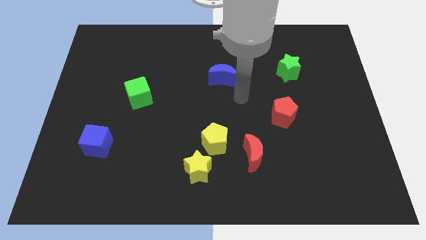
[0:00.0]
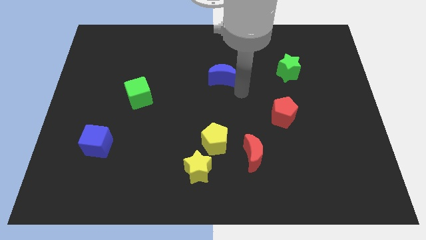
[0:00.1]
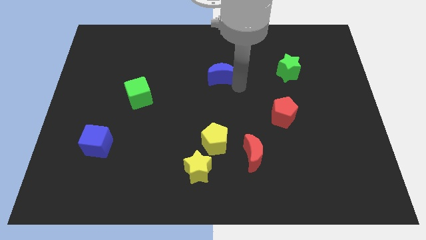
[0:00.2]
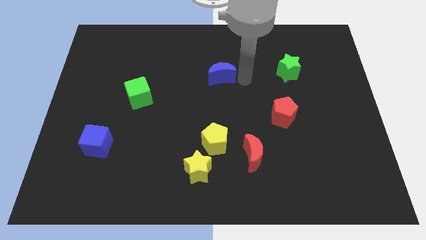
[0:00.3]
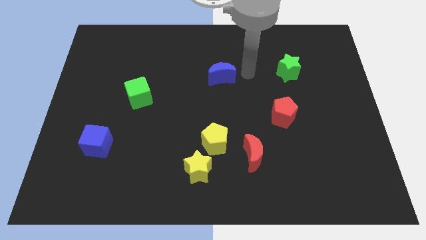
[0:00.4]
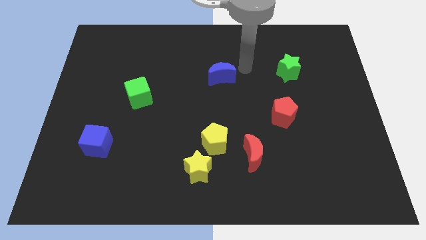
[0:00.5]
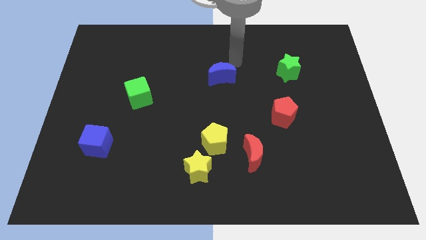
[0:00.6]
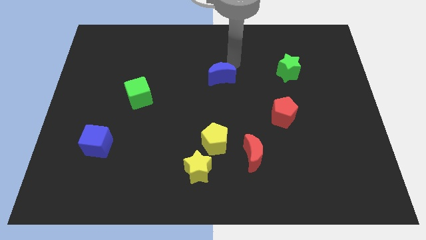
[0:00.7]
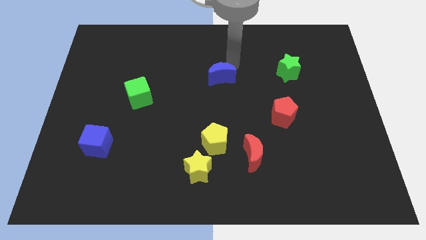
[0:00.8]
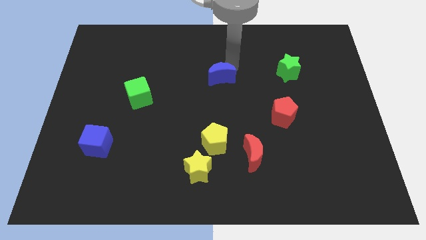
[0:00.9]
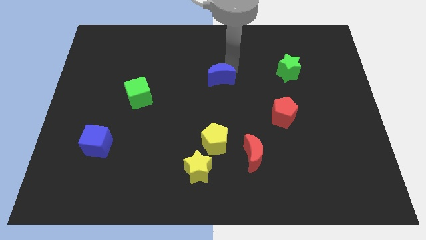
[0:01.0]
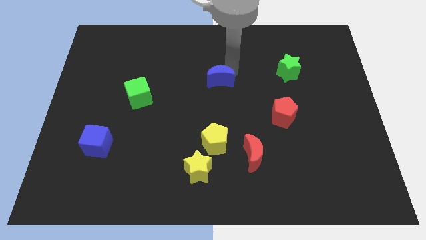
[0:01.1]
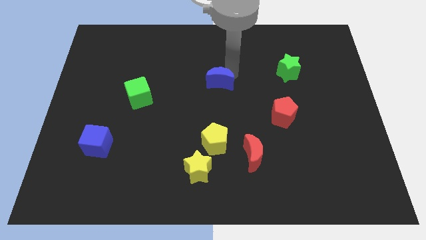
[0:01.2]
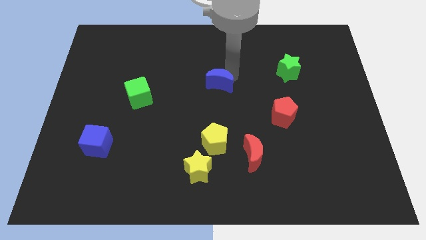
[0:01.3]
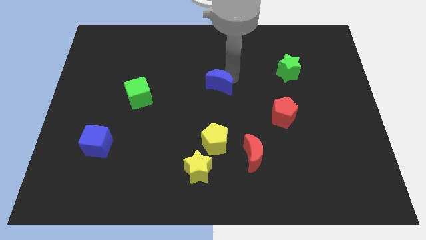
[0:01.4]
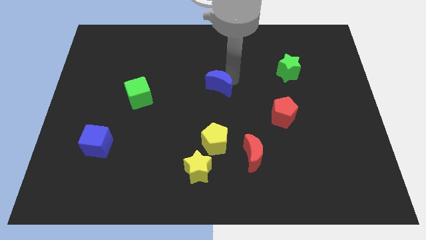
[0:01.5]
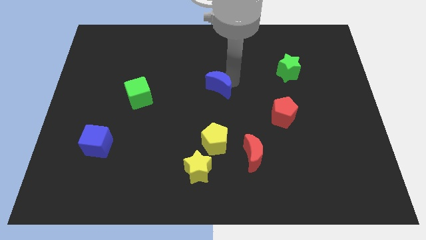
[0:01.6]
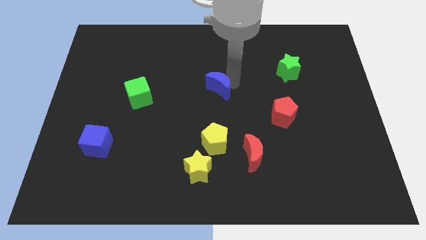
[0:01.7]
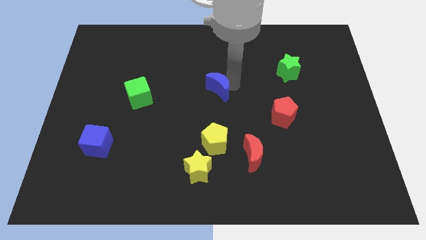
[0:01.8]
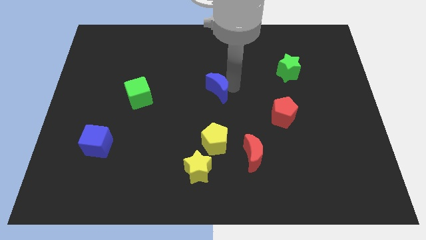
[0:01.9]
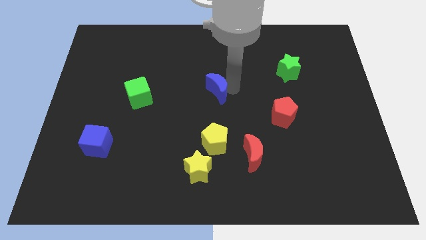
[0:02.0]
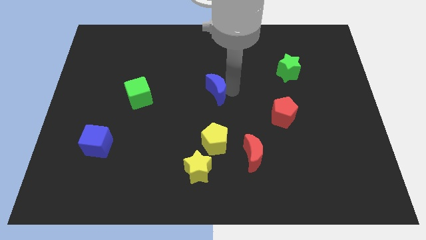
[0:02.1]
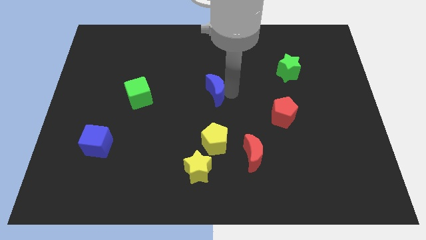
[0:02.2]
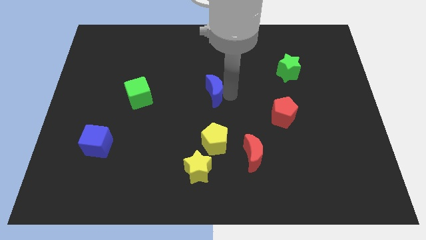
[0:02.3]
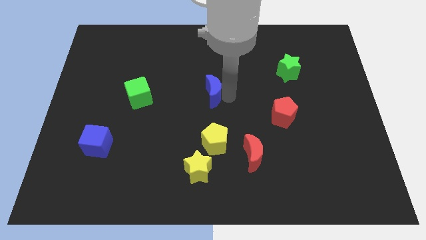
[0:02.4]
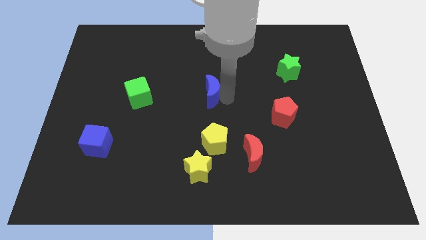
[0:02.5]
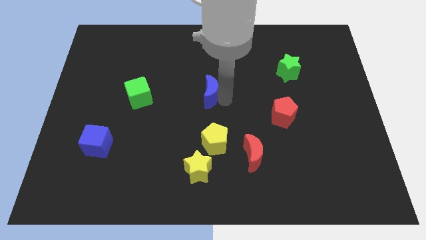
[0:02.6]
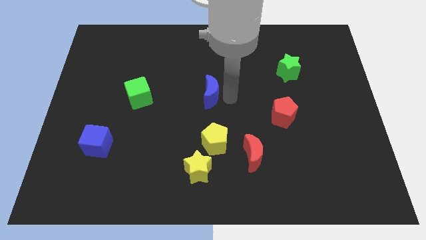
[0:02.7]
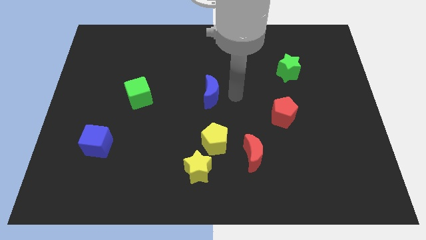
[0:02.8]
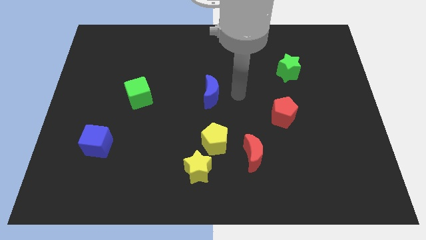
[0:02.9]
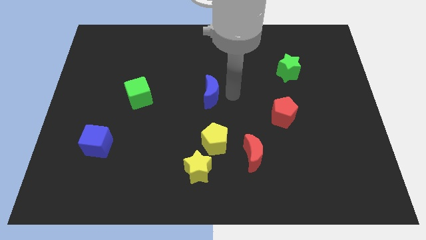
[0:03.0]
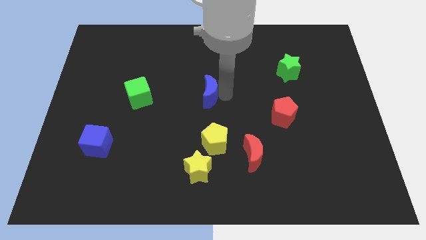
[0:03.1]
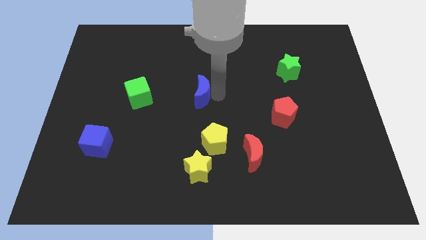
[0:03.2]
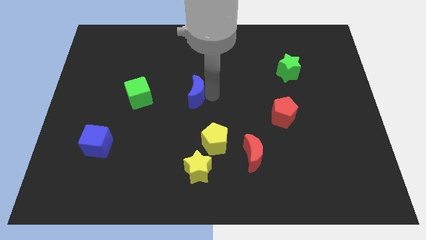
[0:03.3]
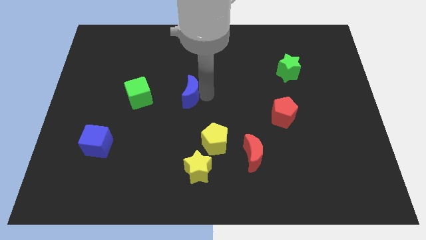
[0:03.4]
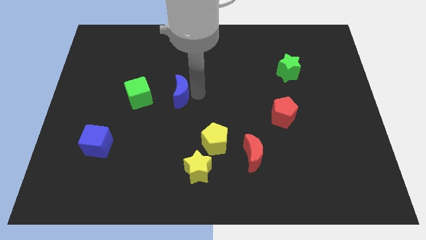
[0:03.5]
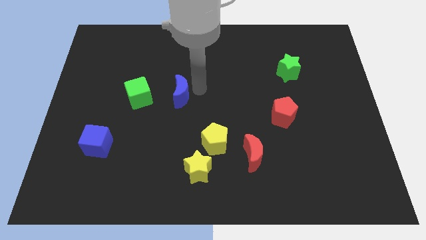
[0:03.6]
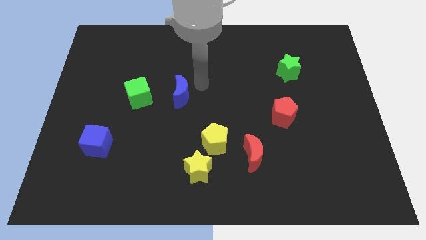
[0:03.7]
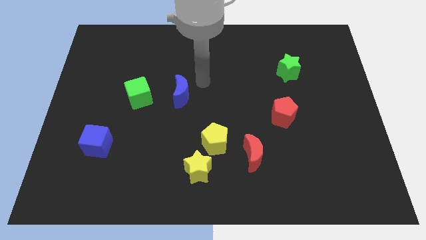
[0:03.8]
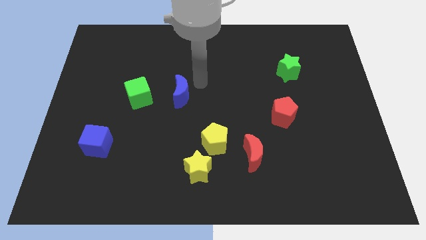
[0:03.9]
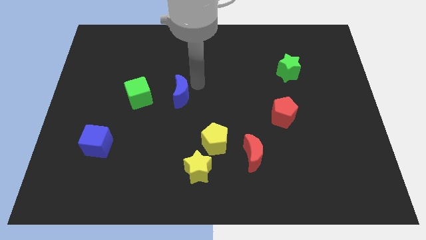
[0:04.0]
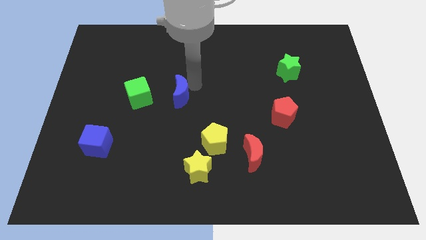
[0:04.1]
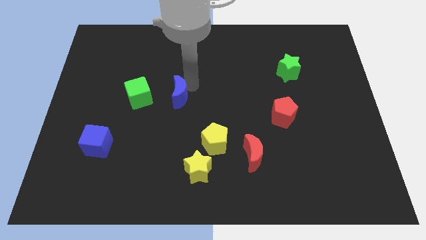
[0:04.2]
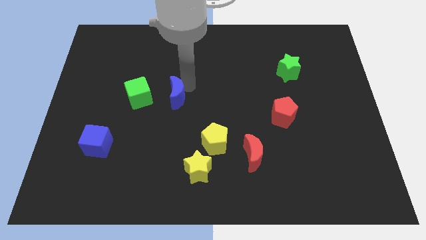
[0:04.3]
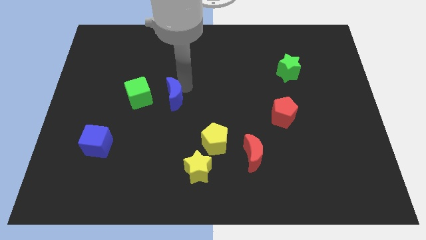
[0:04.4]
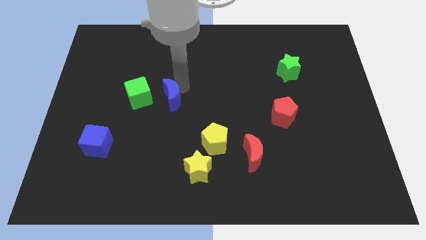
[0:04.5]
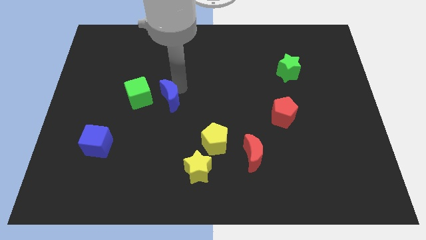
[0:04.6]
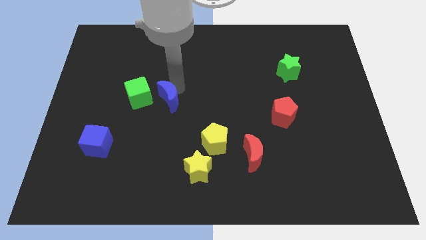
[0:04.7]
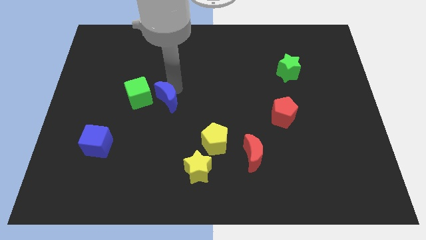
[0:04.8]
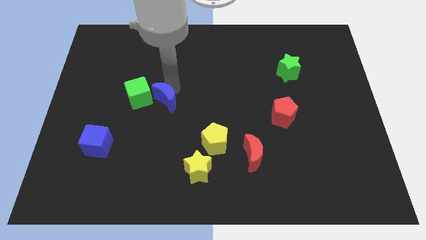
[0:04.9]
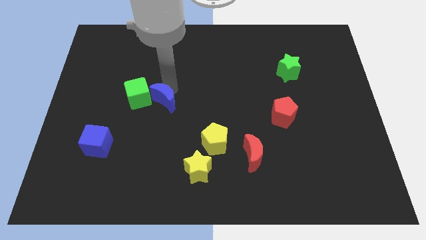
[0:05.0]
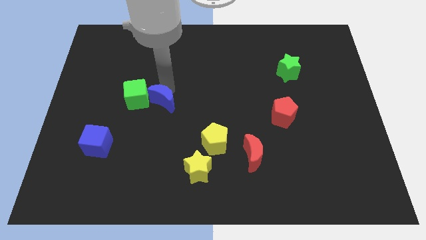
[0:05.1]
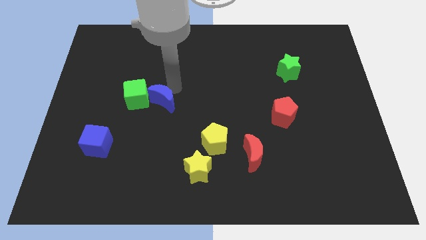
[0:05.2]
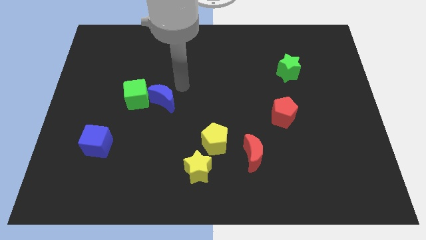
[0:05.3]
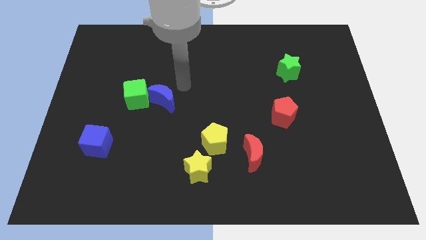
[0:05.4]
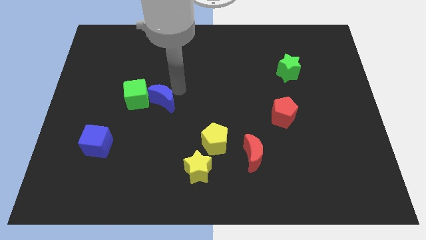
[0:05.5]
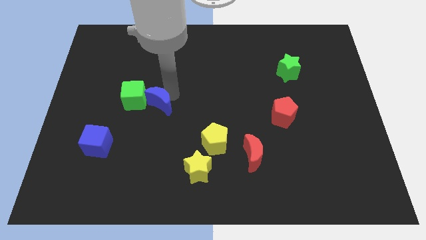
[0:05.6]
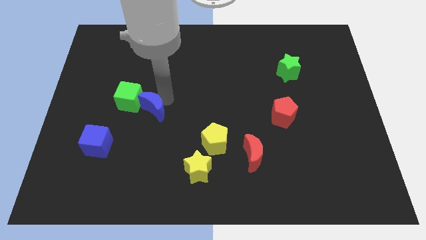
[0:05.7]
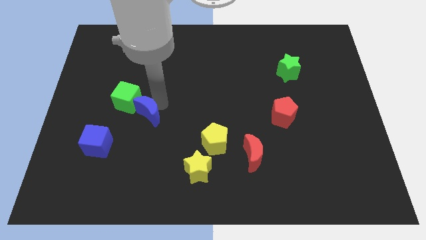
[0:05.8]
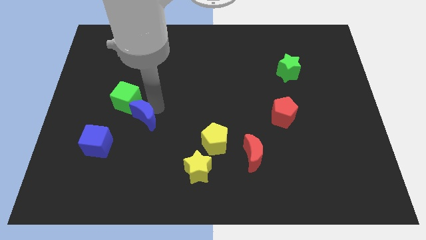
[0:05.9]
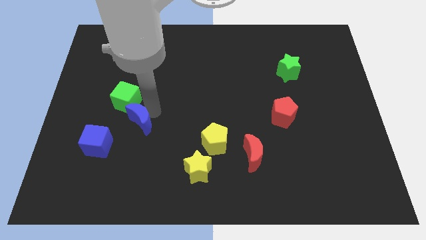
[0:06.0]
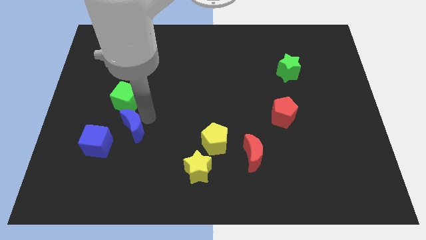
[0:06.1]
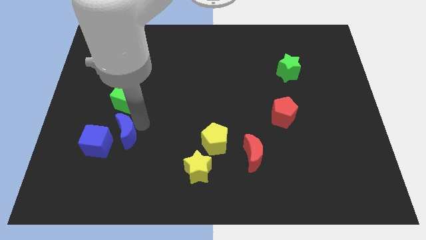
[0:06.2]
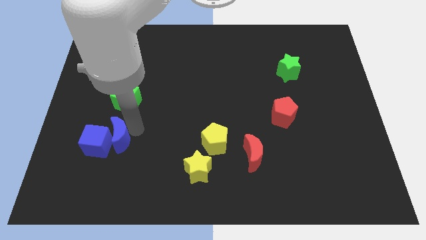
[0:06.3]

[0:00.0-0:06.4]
move the blue moon towards the blue cube

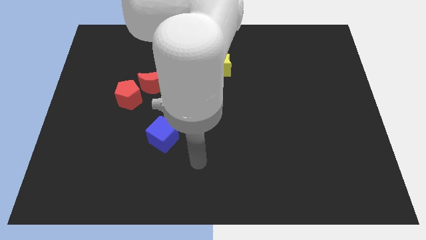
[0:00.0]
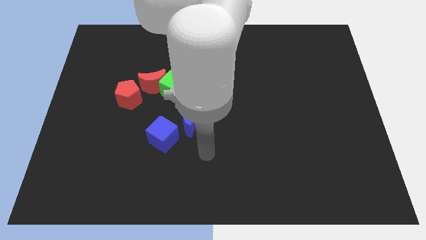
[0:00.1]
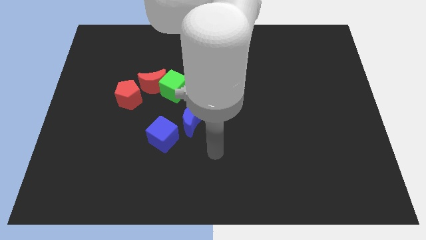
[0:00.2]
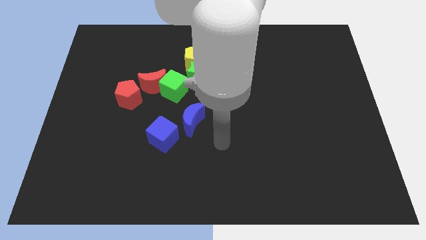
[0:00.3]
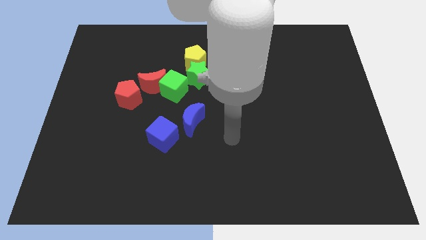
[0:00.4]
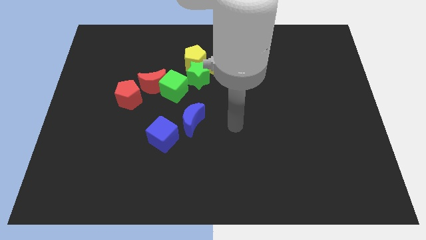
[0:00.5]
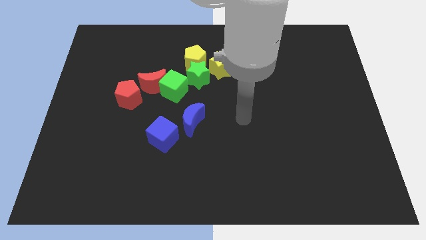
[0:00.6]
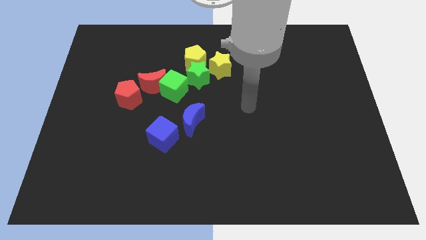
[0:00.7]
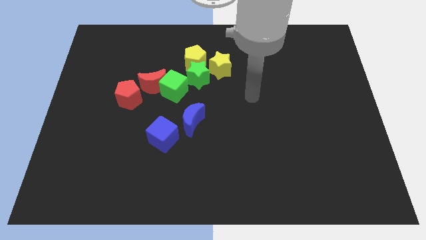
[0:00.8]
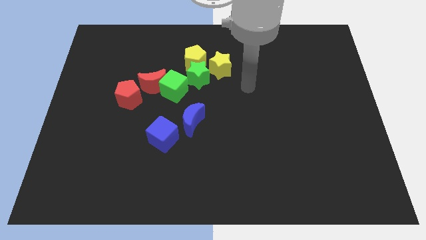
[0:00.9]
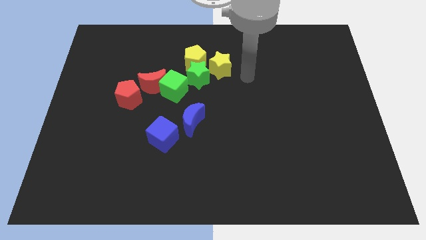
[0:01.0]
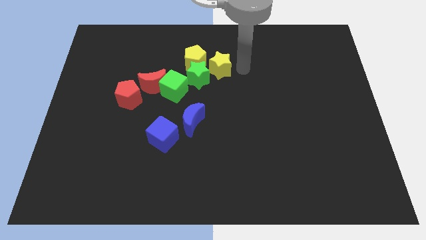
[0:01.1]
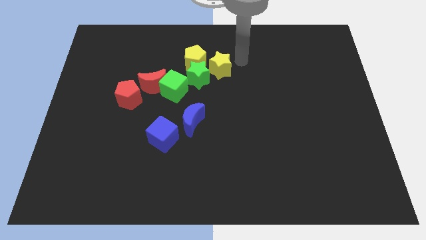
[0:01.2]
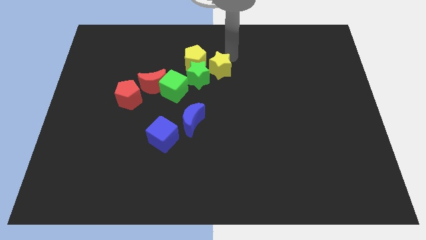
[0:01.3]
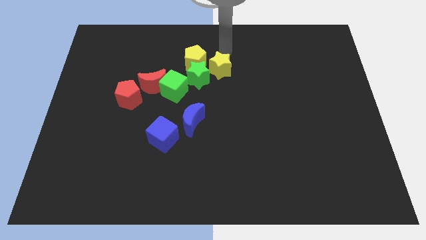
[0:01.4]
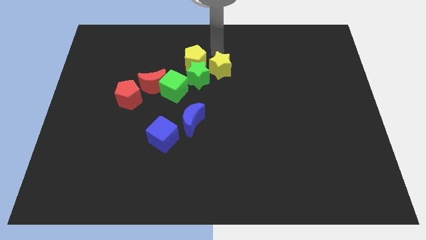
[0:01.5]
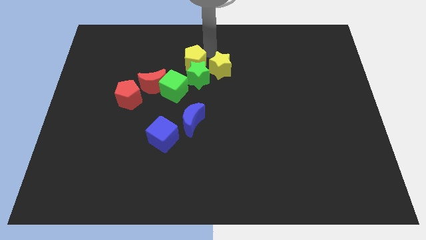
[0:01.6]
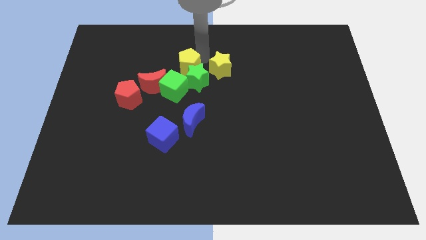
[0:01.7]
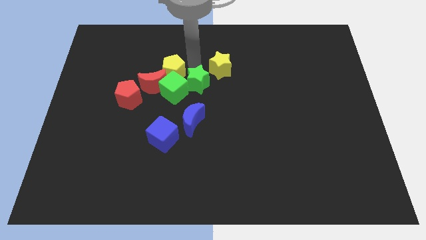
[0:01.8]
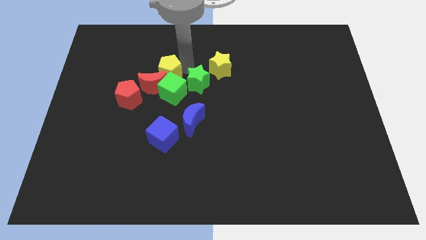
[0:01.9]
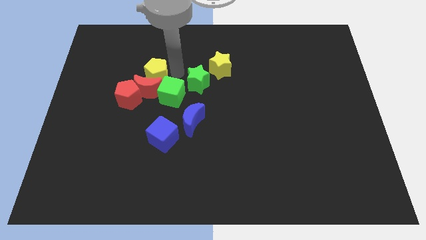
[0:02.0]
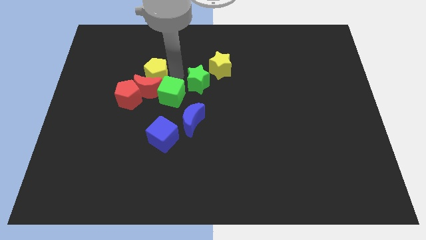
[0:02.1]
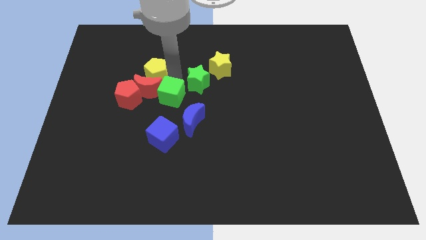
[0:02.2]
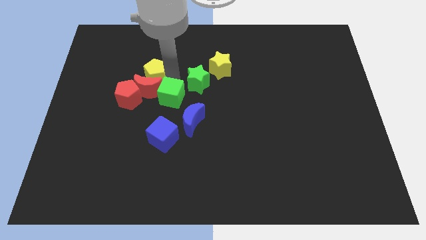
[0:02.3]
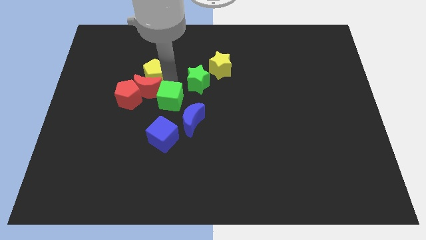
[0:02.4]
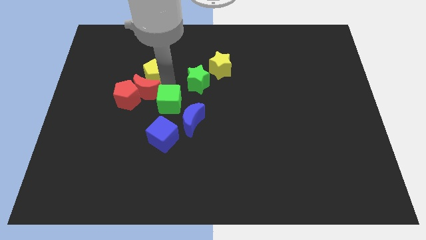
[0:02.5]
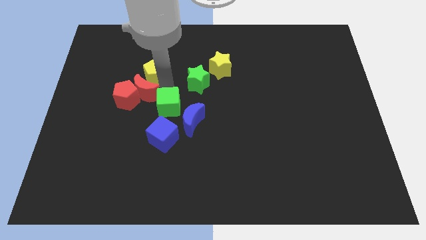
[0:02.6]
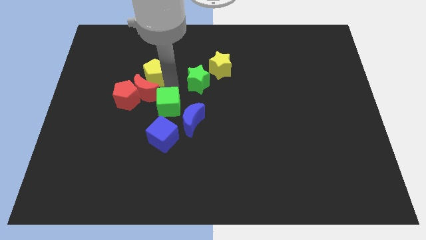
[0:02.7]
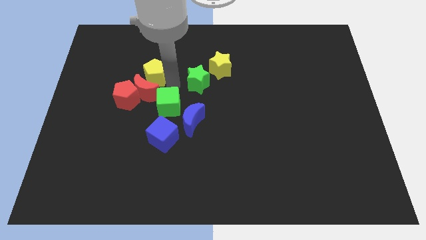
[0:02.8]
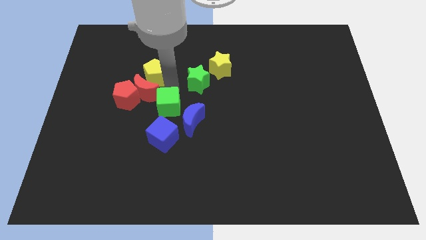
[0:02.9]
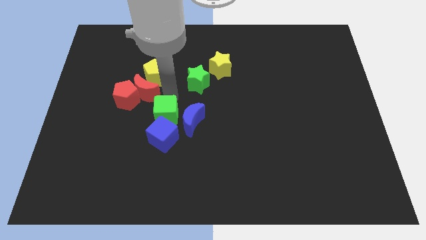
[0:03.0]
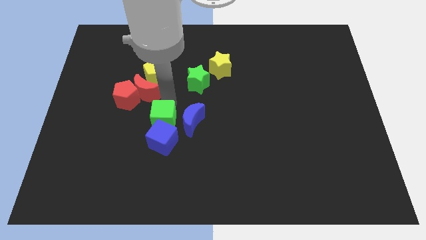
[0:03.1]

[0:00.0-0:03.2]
move the green cube towards the blue cube
